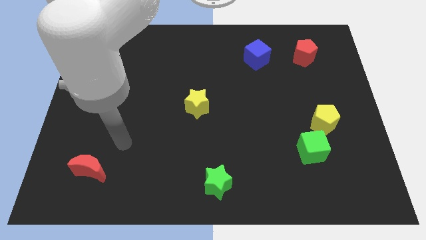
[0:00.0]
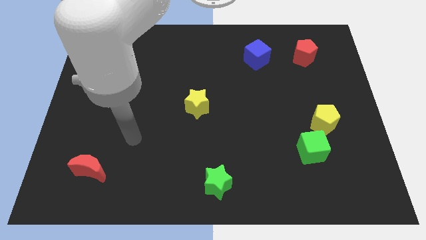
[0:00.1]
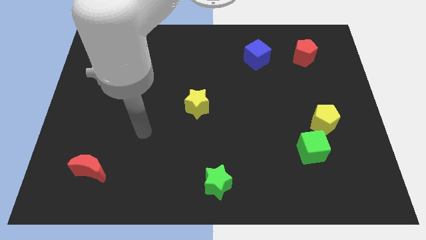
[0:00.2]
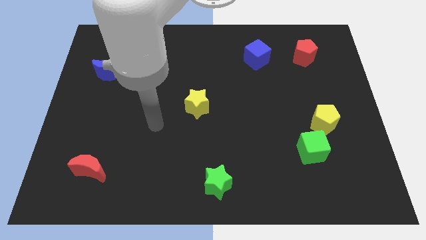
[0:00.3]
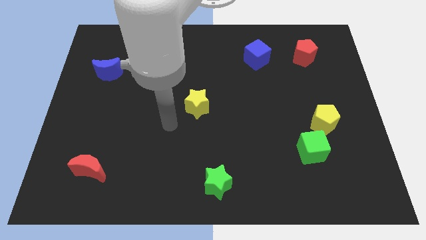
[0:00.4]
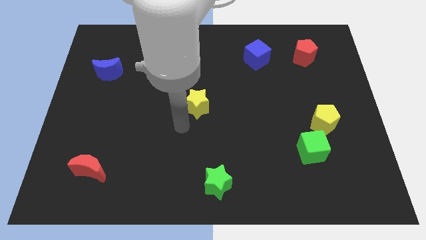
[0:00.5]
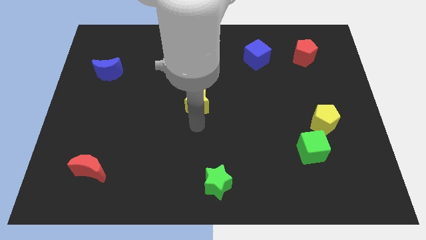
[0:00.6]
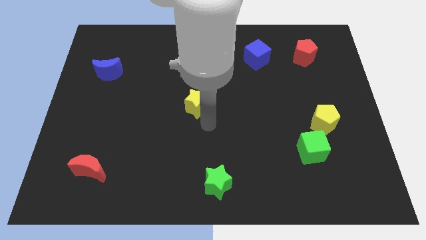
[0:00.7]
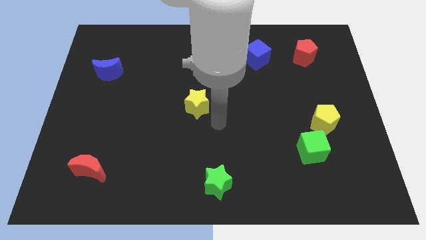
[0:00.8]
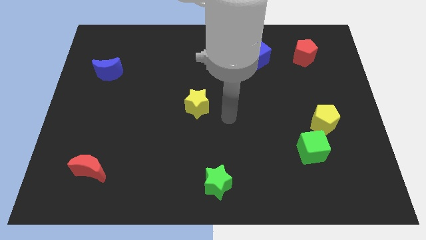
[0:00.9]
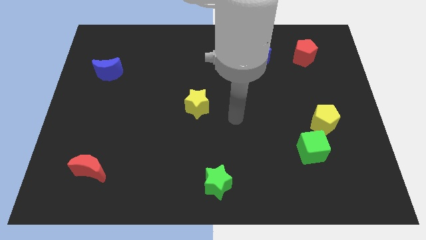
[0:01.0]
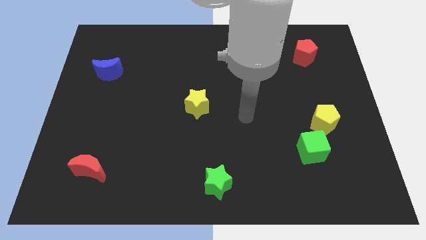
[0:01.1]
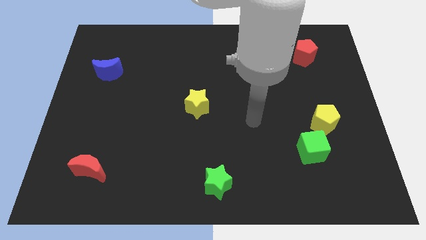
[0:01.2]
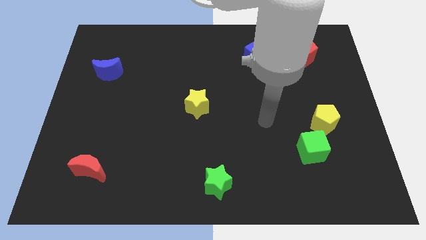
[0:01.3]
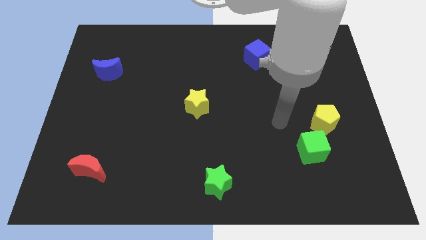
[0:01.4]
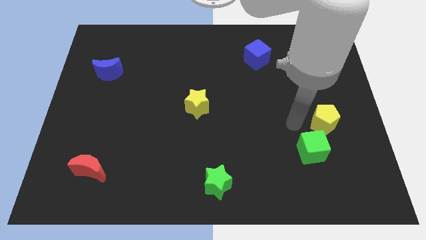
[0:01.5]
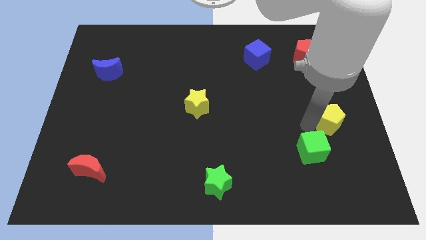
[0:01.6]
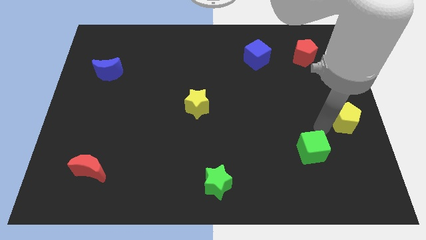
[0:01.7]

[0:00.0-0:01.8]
move the green cube away from the yellow pentagon

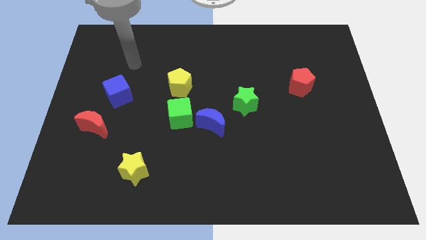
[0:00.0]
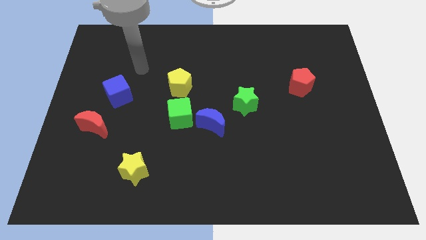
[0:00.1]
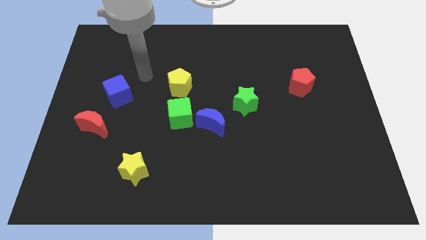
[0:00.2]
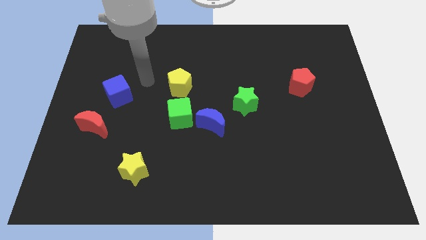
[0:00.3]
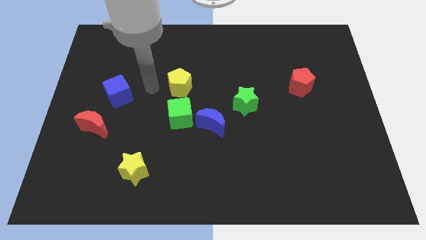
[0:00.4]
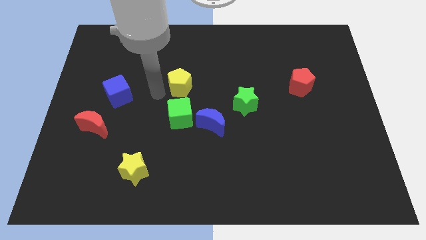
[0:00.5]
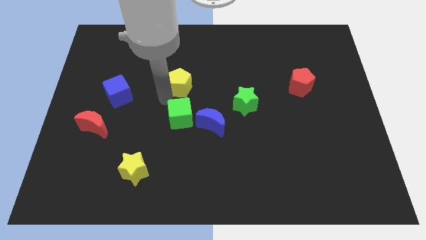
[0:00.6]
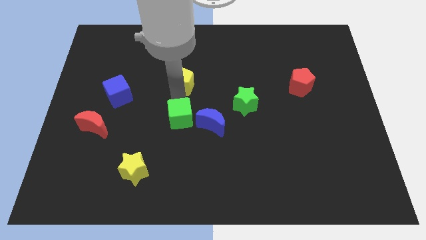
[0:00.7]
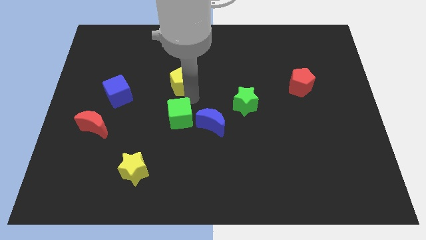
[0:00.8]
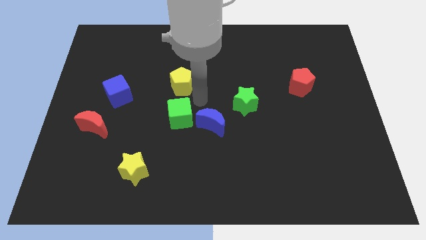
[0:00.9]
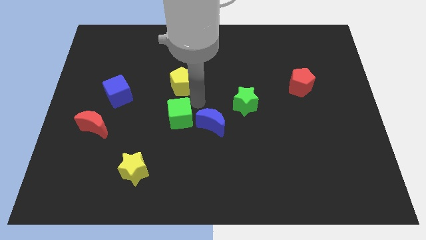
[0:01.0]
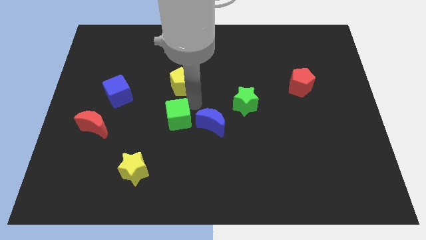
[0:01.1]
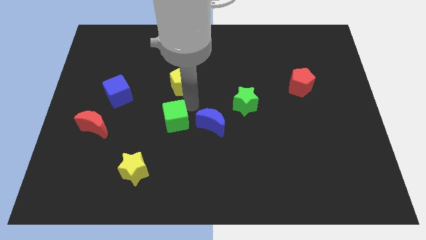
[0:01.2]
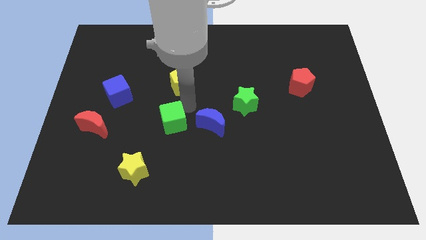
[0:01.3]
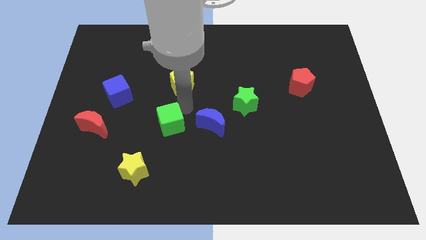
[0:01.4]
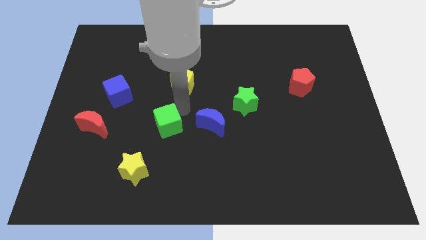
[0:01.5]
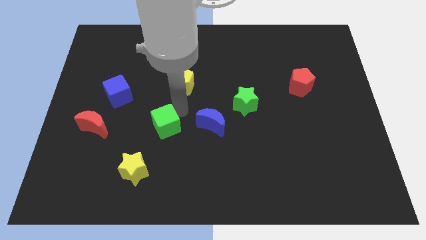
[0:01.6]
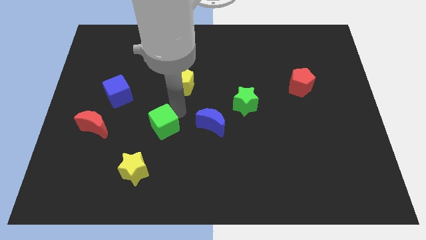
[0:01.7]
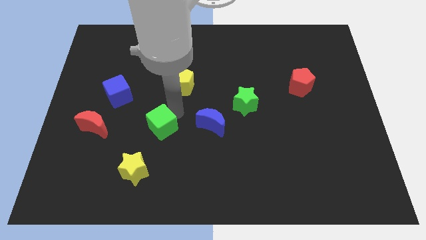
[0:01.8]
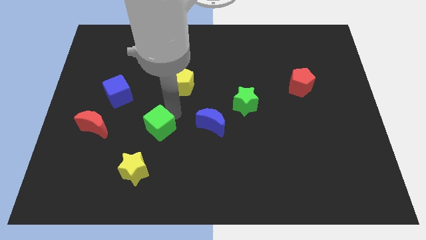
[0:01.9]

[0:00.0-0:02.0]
move the green cube away from the blue moon and yellow pentagon

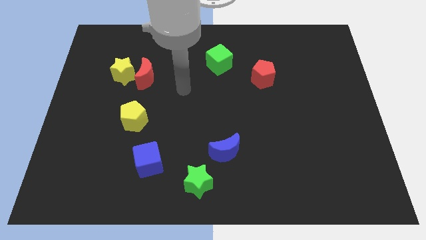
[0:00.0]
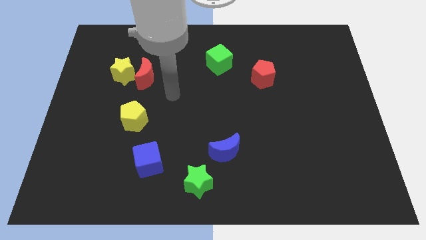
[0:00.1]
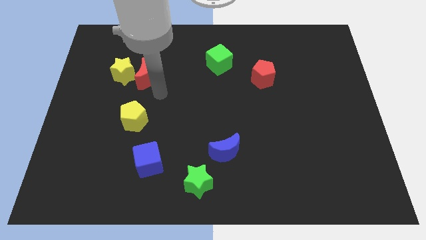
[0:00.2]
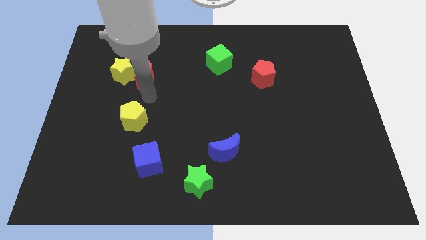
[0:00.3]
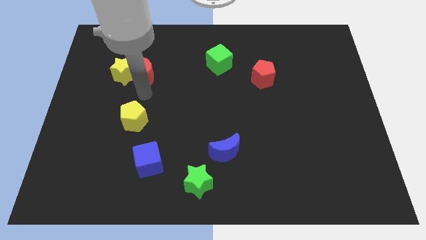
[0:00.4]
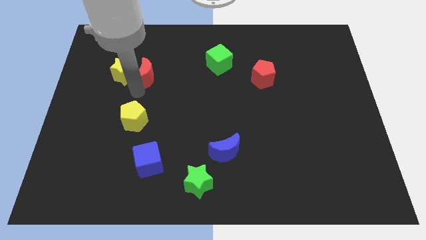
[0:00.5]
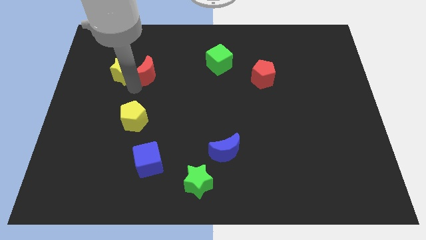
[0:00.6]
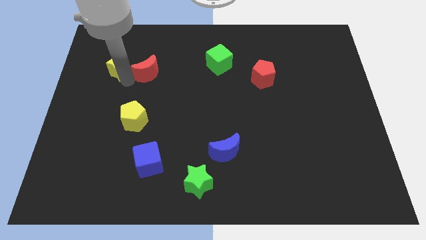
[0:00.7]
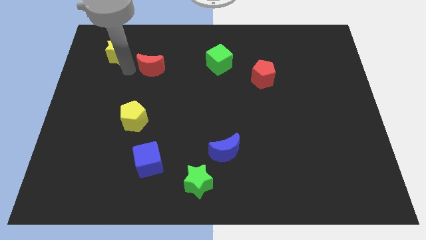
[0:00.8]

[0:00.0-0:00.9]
move the red moon away from the yellow star

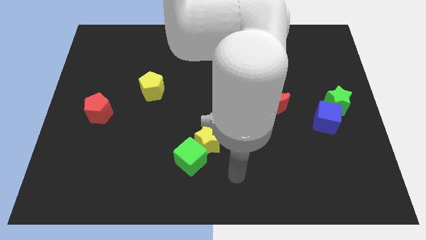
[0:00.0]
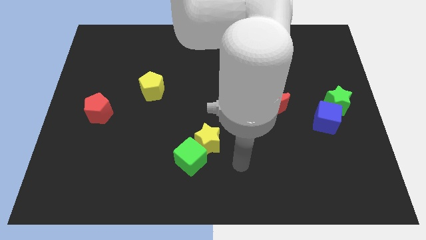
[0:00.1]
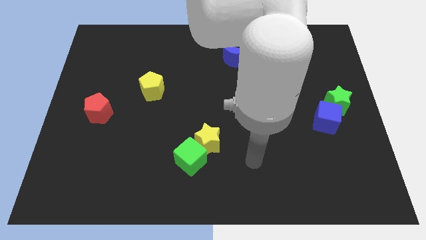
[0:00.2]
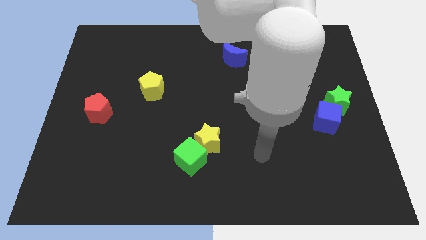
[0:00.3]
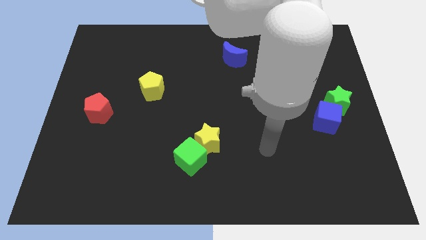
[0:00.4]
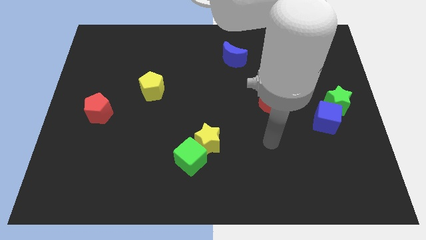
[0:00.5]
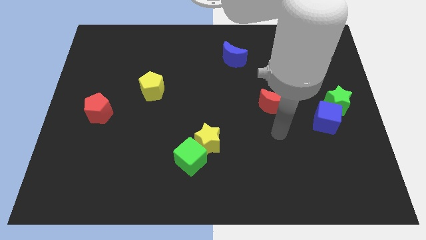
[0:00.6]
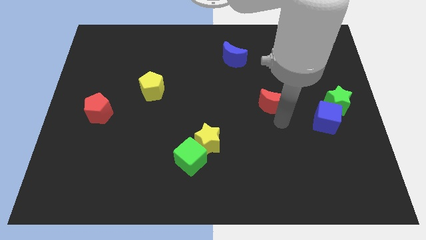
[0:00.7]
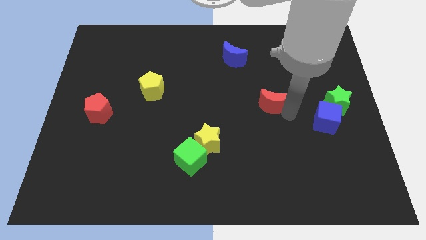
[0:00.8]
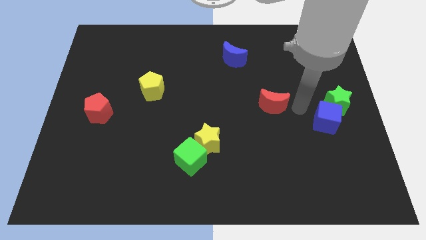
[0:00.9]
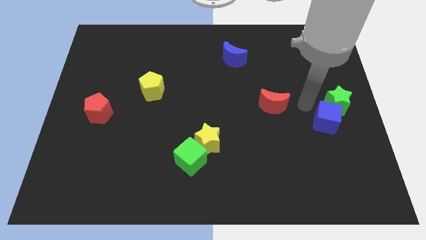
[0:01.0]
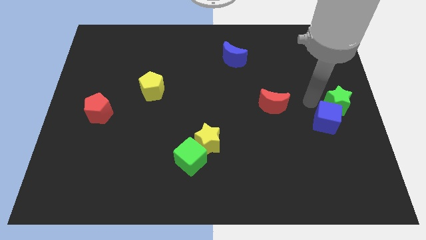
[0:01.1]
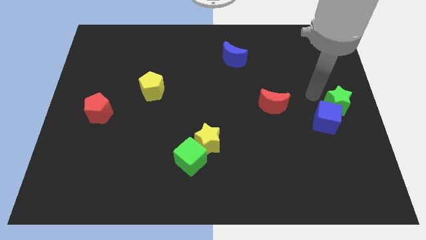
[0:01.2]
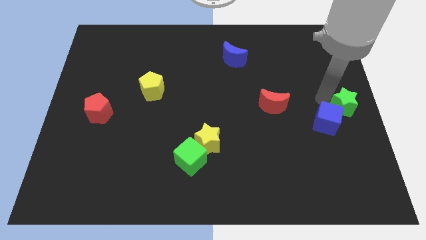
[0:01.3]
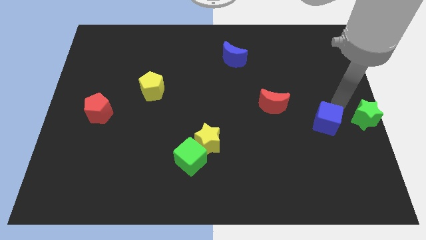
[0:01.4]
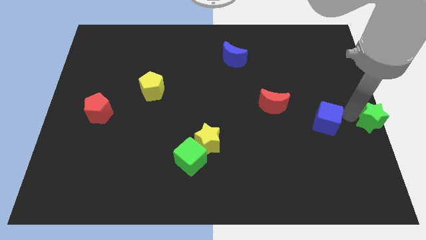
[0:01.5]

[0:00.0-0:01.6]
move the blue cube away from the green star

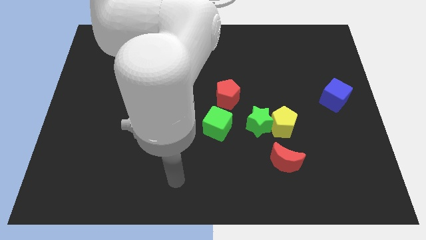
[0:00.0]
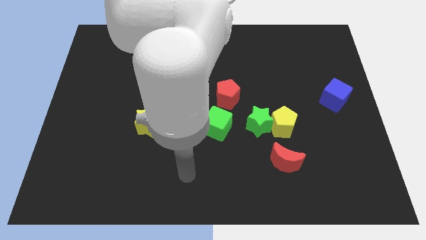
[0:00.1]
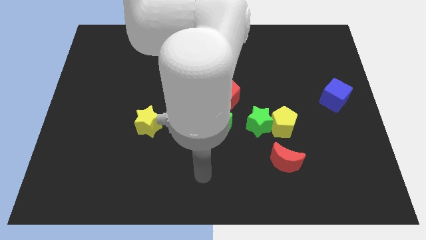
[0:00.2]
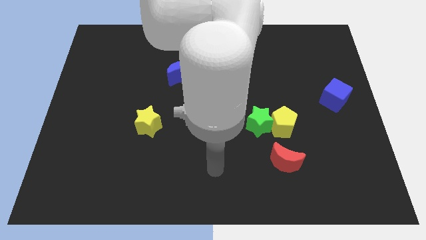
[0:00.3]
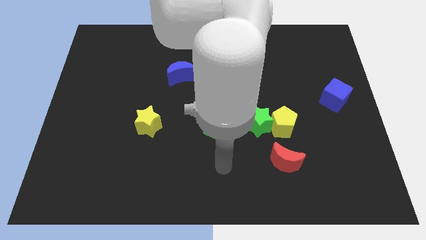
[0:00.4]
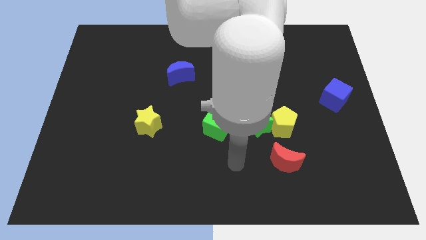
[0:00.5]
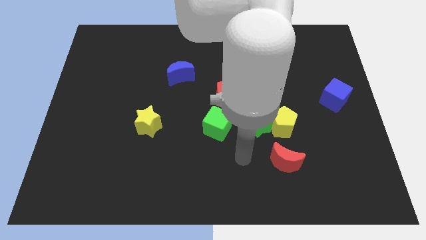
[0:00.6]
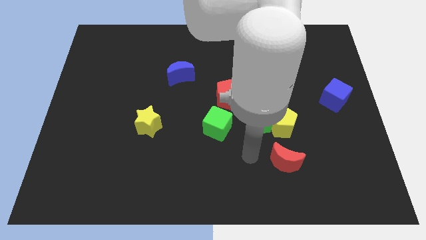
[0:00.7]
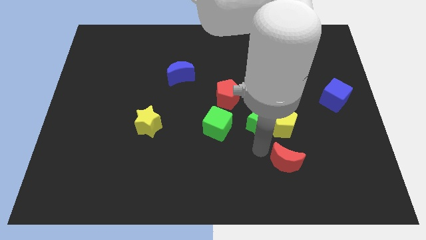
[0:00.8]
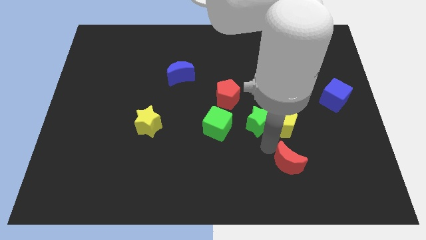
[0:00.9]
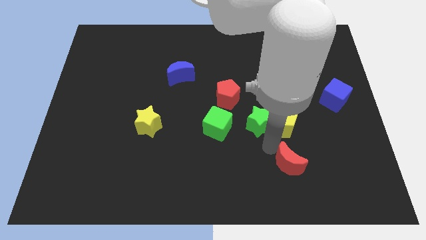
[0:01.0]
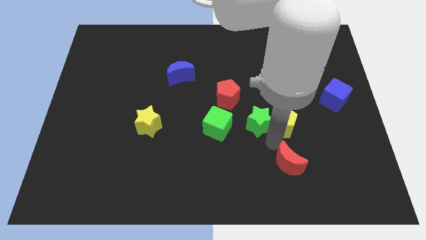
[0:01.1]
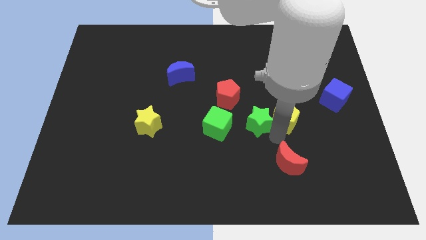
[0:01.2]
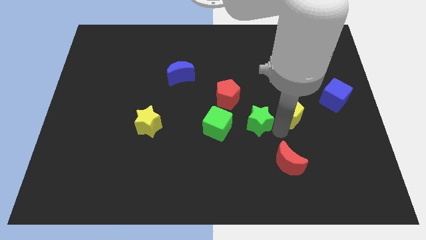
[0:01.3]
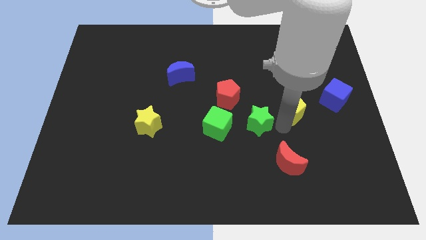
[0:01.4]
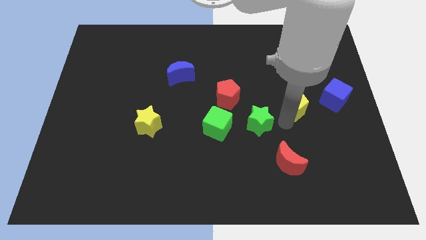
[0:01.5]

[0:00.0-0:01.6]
pull the yellow pentagon apart from the green star and red moon

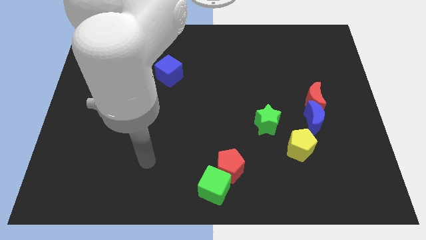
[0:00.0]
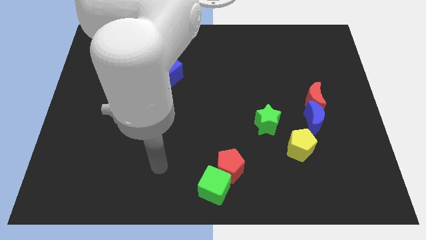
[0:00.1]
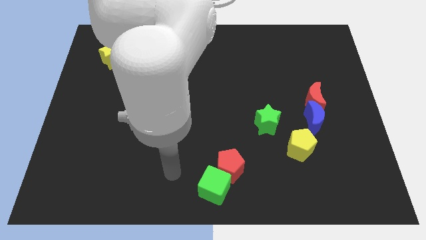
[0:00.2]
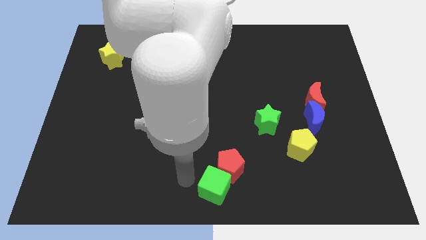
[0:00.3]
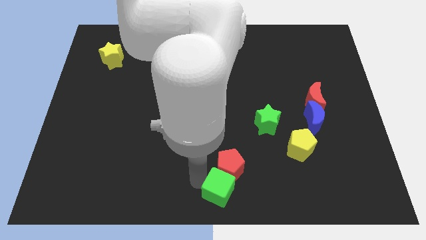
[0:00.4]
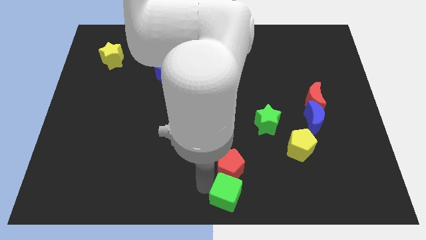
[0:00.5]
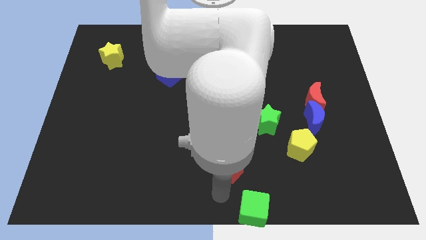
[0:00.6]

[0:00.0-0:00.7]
pull the red pentagon apart from the green cube

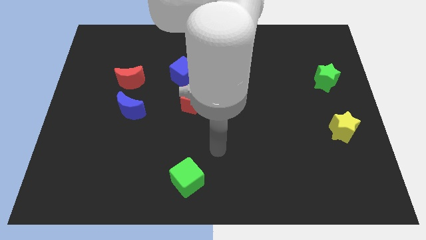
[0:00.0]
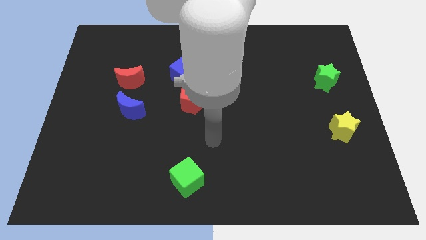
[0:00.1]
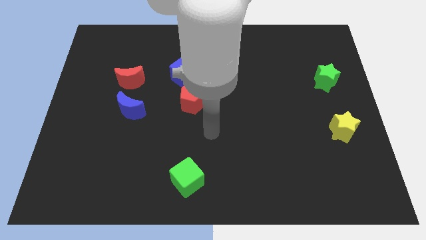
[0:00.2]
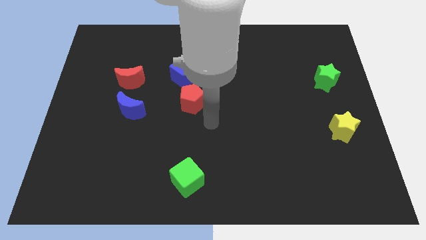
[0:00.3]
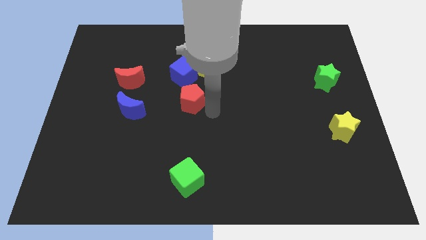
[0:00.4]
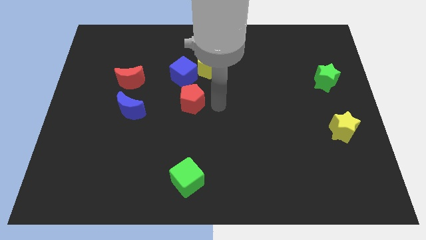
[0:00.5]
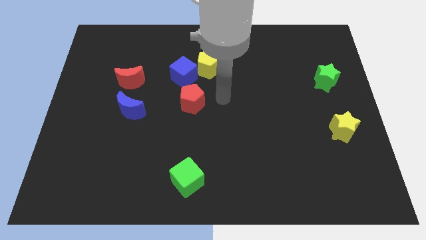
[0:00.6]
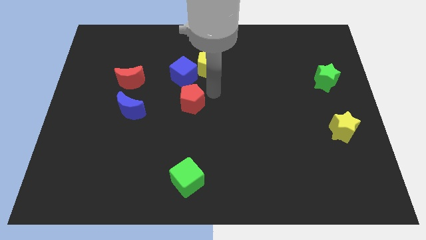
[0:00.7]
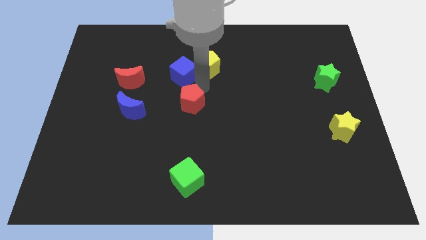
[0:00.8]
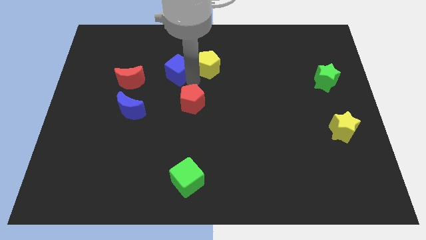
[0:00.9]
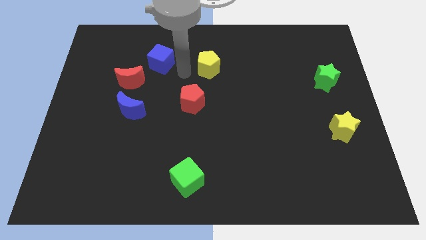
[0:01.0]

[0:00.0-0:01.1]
separate the yellow pentagon from the blue cube
